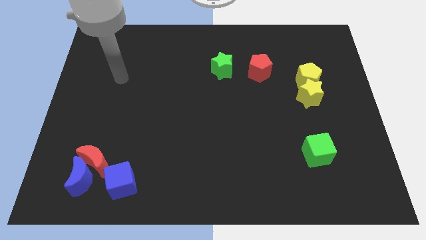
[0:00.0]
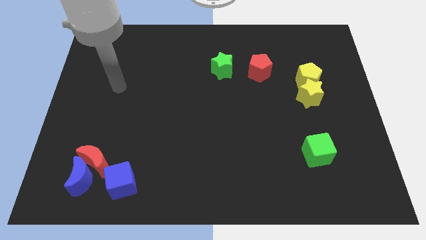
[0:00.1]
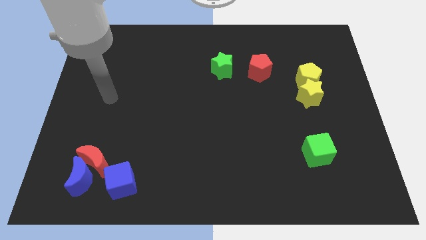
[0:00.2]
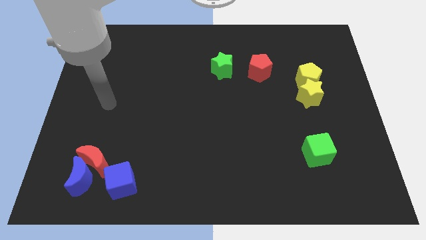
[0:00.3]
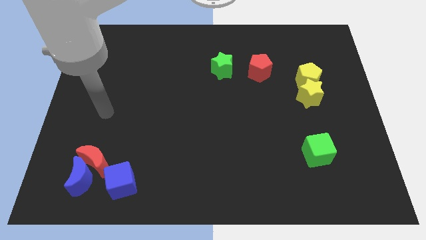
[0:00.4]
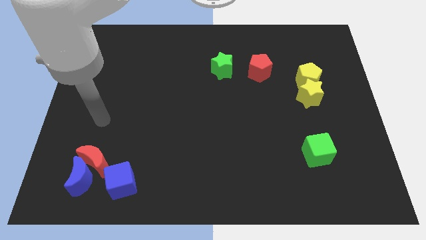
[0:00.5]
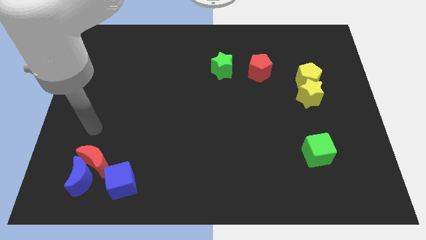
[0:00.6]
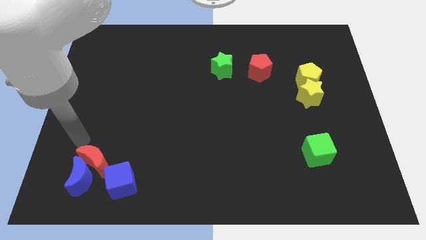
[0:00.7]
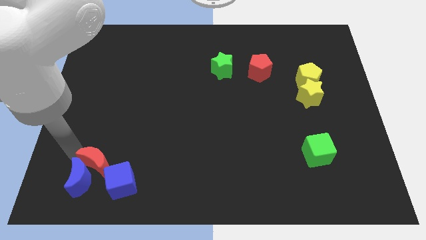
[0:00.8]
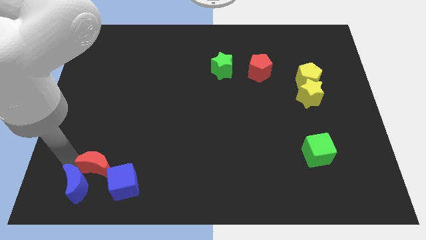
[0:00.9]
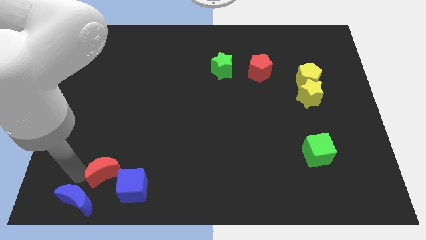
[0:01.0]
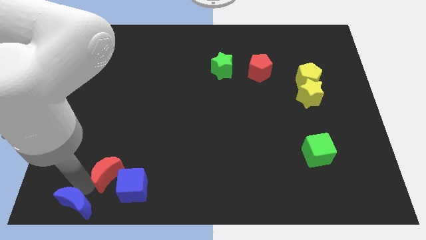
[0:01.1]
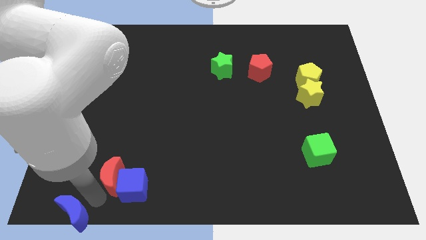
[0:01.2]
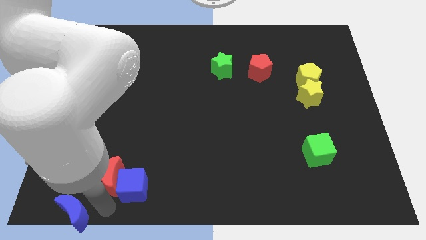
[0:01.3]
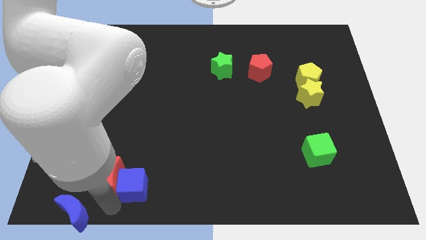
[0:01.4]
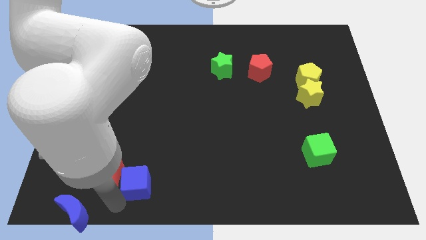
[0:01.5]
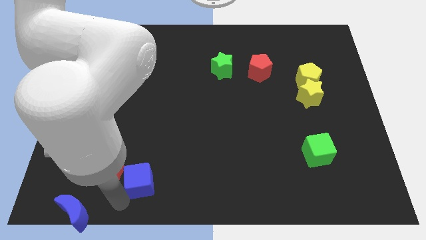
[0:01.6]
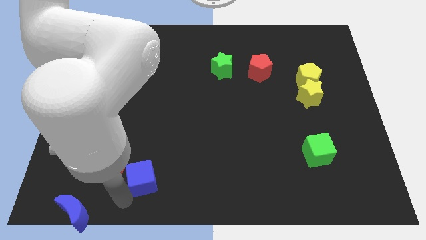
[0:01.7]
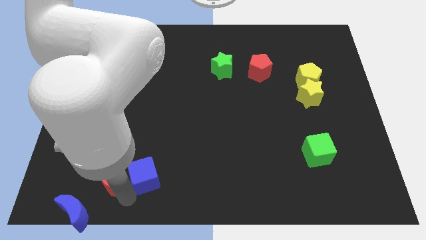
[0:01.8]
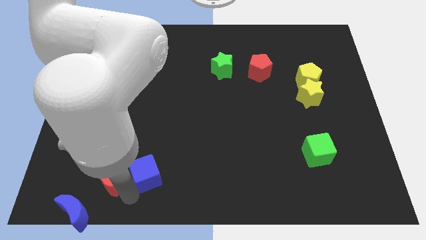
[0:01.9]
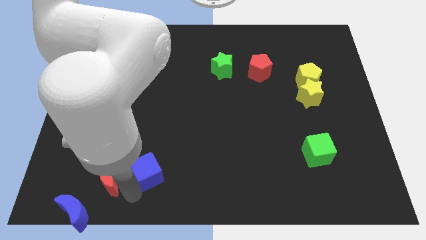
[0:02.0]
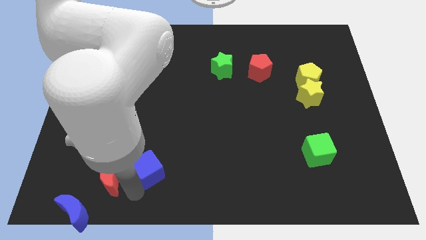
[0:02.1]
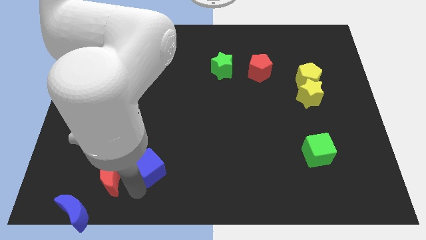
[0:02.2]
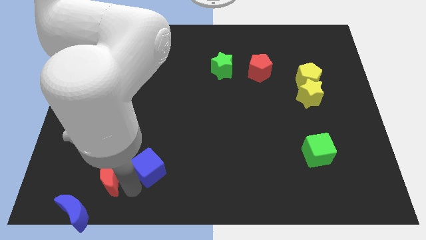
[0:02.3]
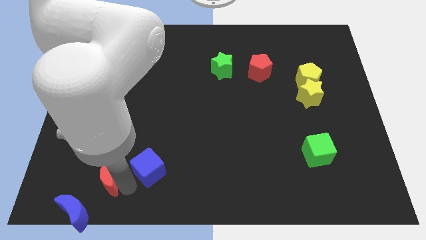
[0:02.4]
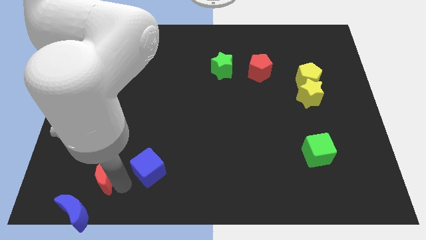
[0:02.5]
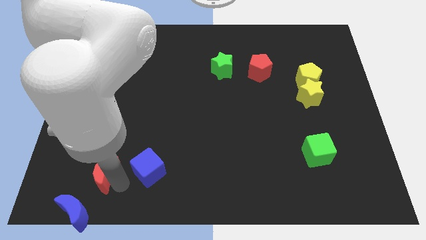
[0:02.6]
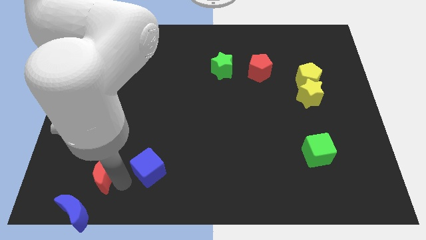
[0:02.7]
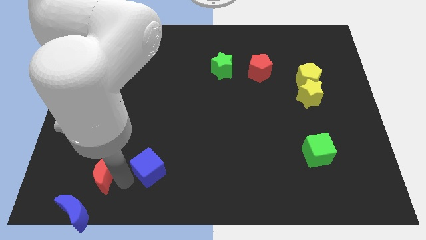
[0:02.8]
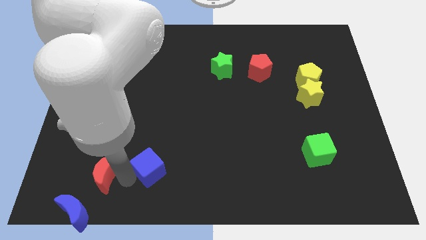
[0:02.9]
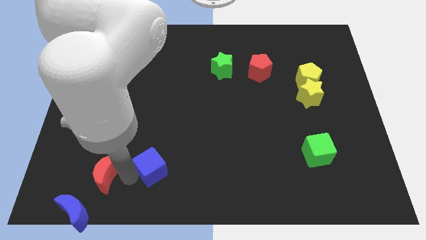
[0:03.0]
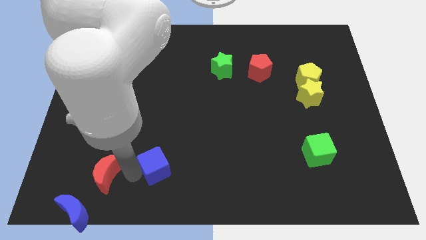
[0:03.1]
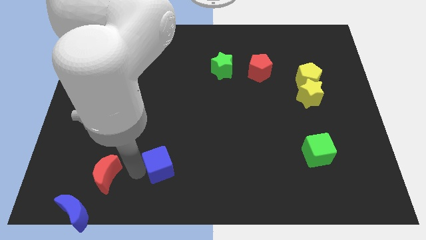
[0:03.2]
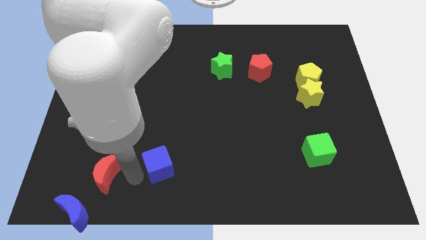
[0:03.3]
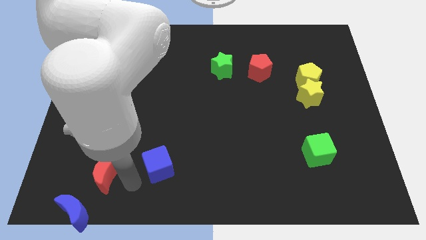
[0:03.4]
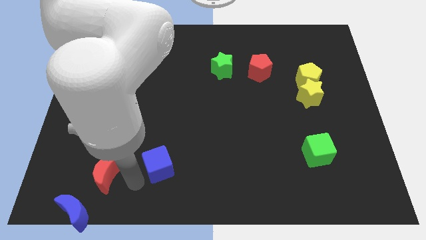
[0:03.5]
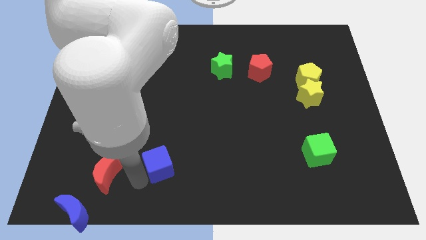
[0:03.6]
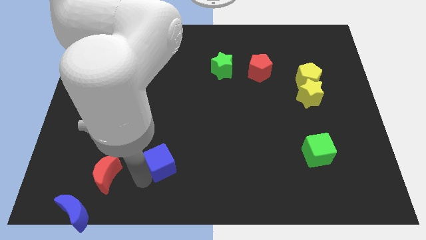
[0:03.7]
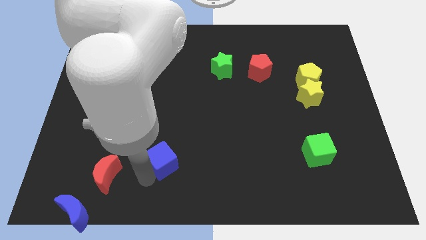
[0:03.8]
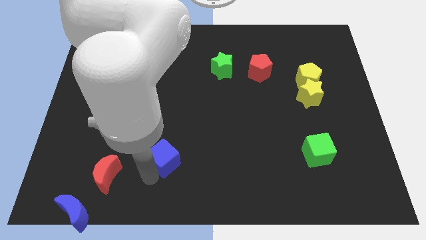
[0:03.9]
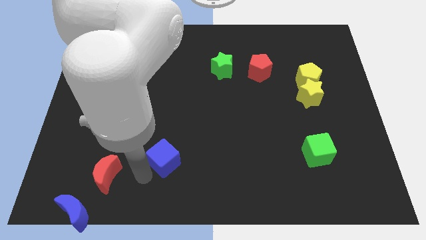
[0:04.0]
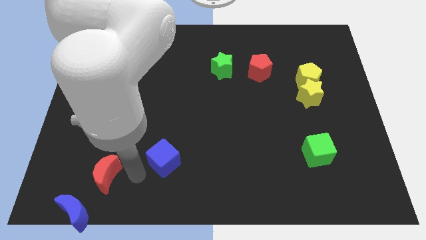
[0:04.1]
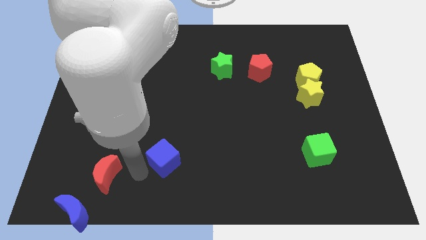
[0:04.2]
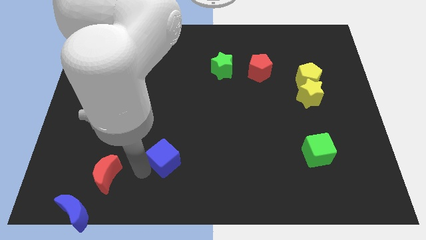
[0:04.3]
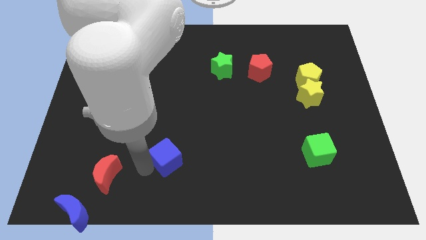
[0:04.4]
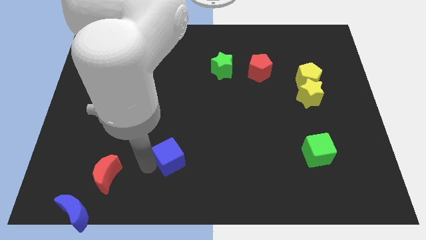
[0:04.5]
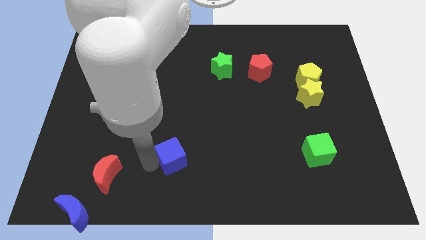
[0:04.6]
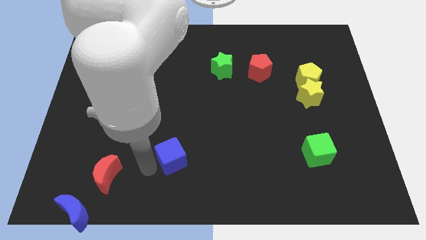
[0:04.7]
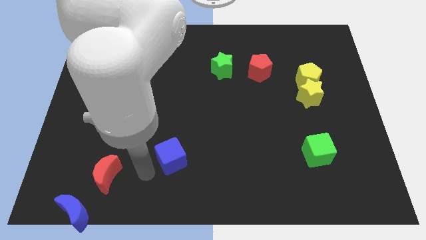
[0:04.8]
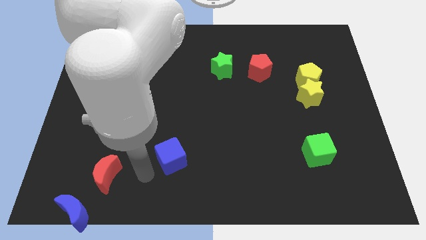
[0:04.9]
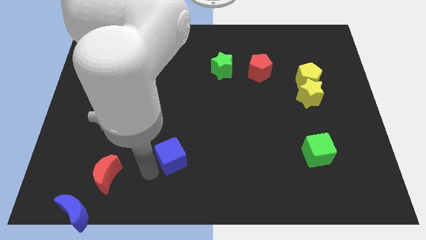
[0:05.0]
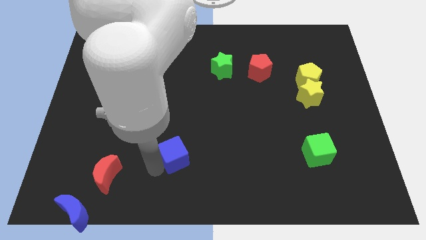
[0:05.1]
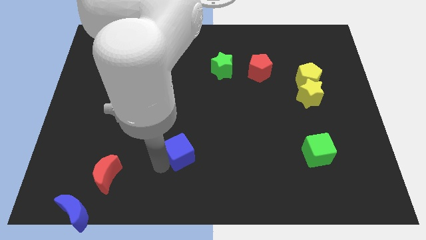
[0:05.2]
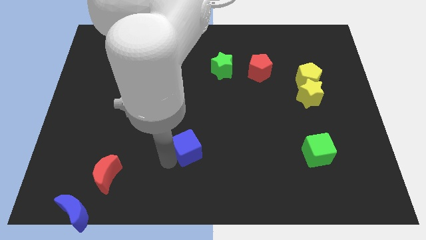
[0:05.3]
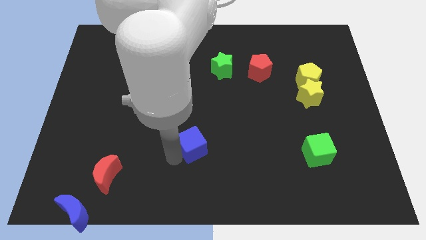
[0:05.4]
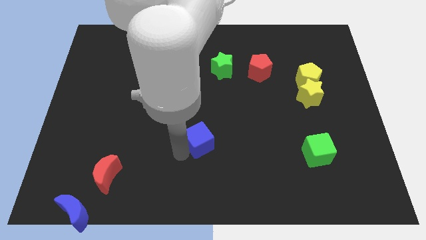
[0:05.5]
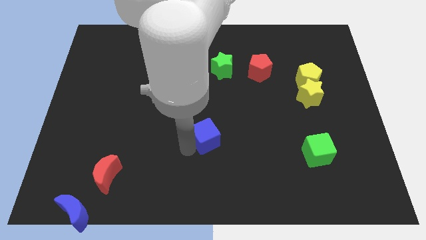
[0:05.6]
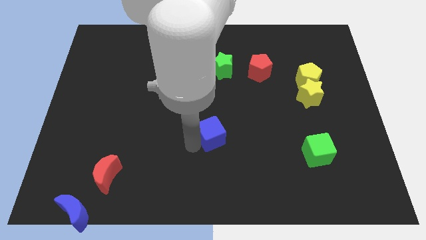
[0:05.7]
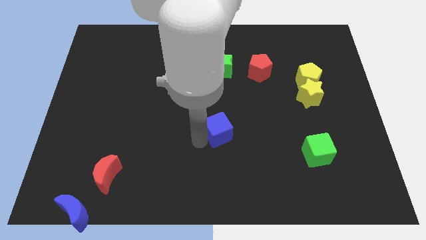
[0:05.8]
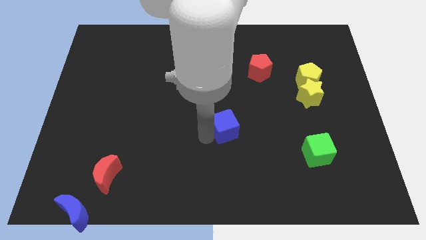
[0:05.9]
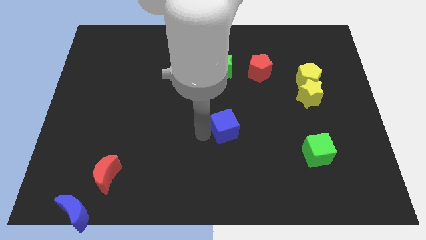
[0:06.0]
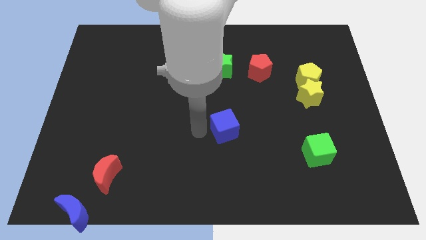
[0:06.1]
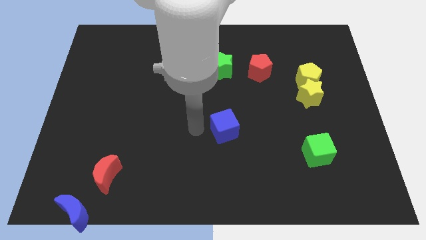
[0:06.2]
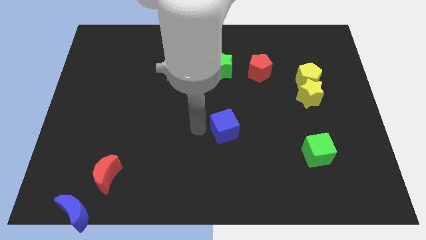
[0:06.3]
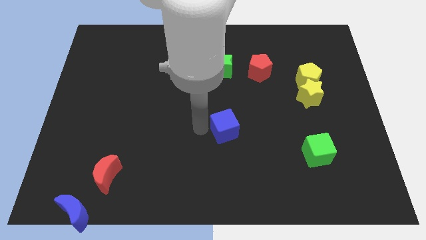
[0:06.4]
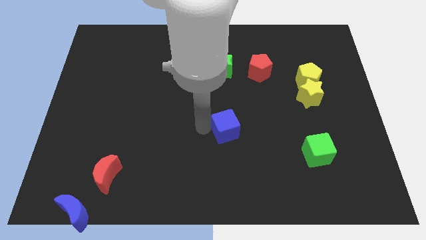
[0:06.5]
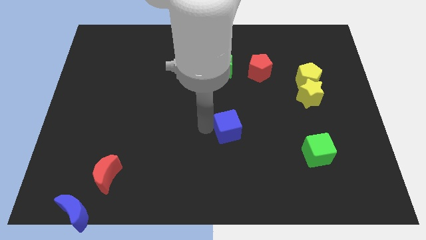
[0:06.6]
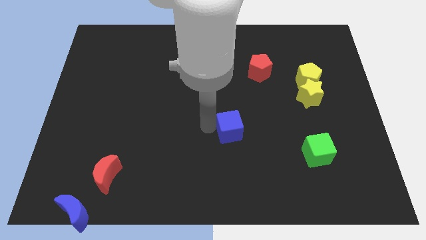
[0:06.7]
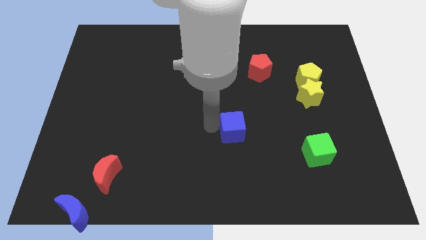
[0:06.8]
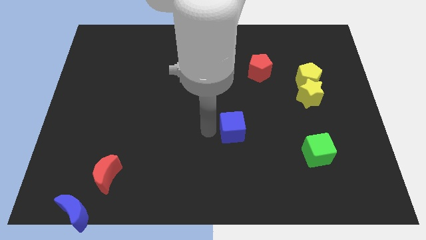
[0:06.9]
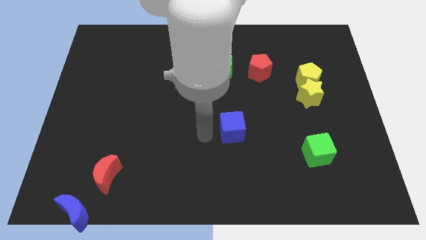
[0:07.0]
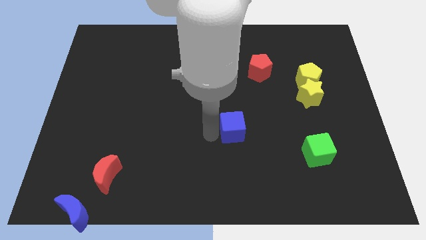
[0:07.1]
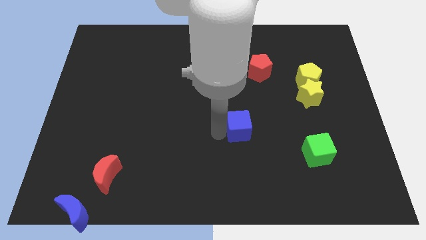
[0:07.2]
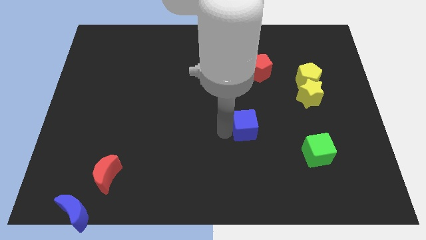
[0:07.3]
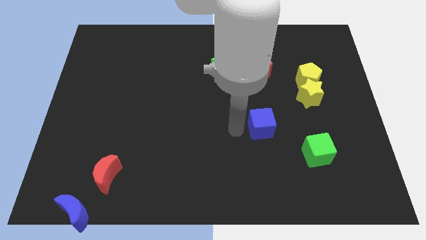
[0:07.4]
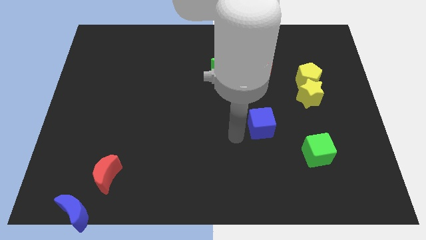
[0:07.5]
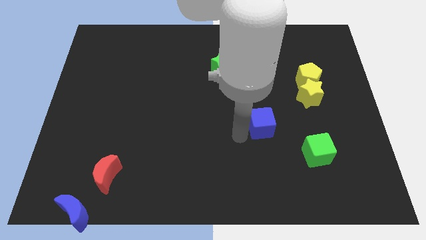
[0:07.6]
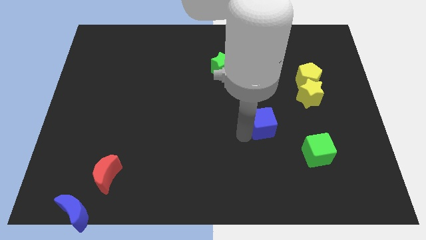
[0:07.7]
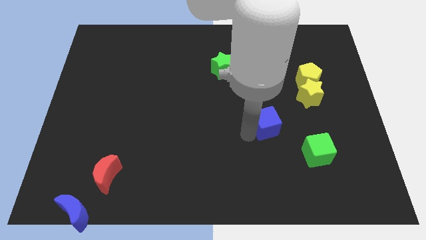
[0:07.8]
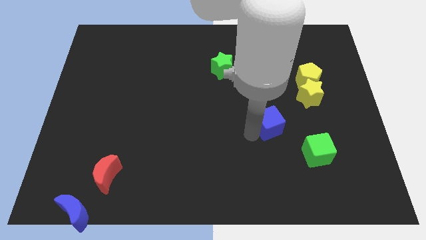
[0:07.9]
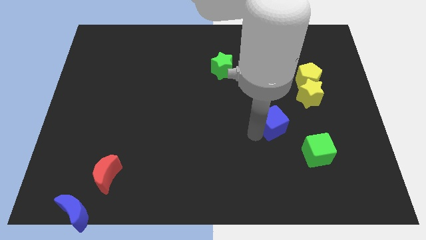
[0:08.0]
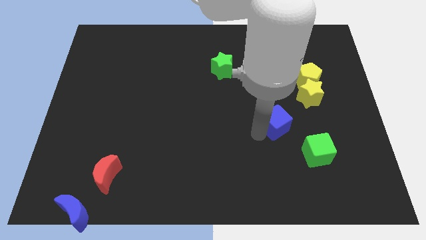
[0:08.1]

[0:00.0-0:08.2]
push the blue cube to the bottom left of the yellow star
